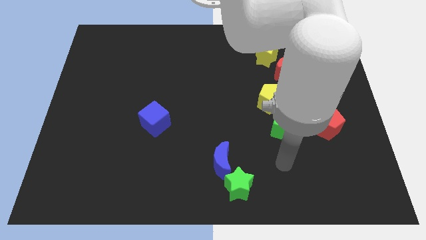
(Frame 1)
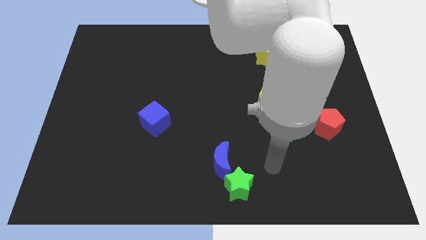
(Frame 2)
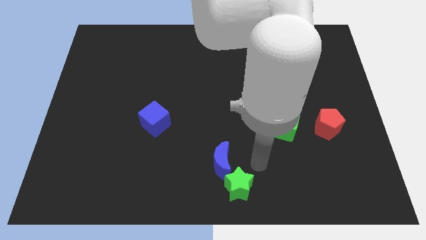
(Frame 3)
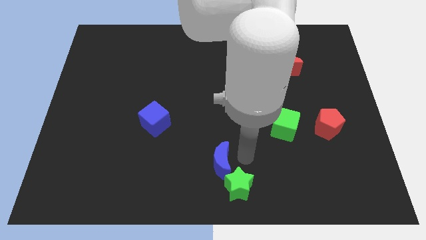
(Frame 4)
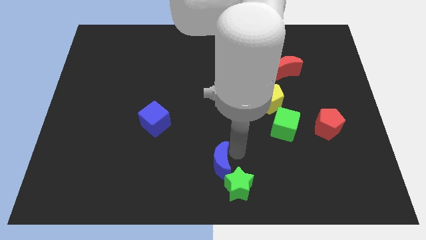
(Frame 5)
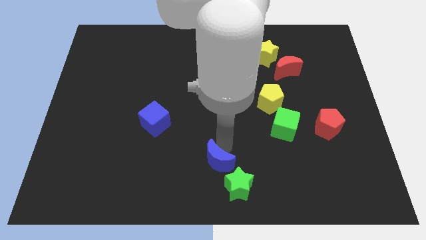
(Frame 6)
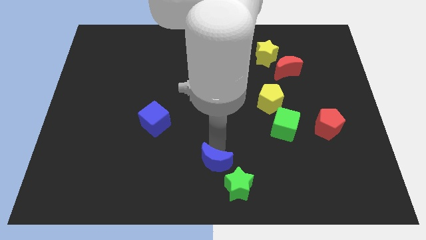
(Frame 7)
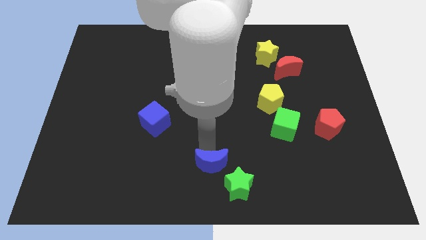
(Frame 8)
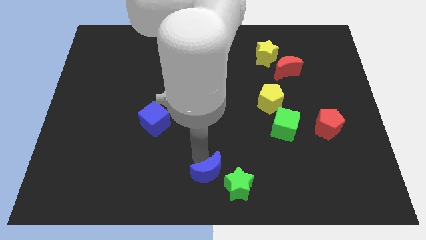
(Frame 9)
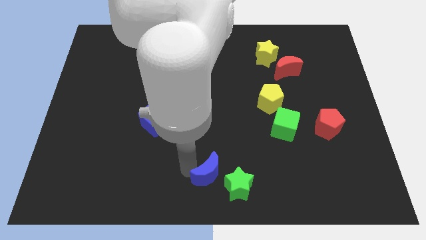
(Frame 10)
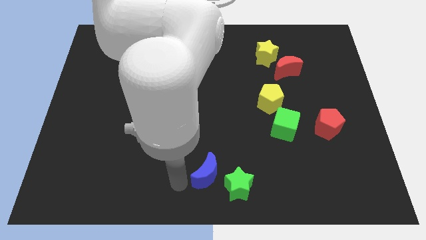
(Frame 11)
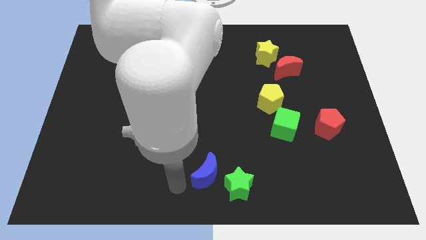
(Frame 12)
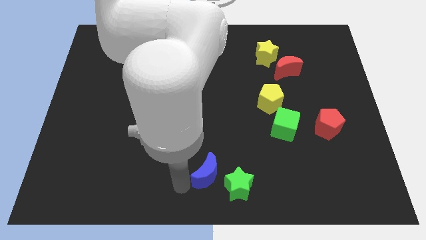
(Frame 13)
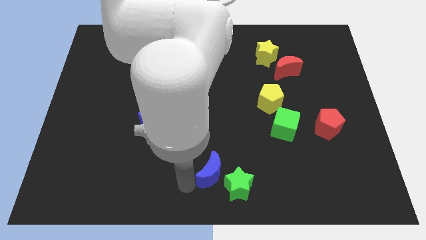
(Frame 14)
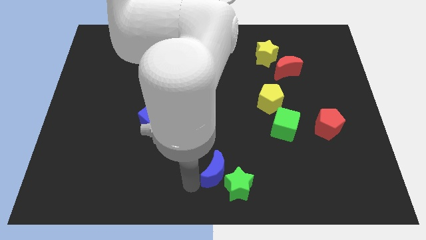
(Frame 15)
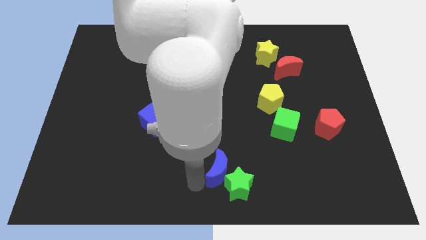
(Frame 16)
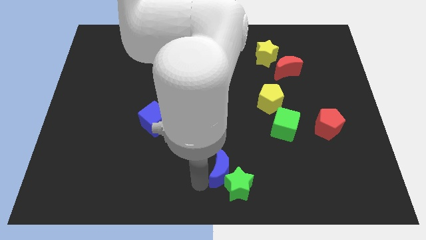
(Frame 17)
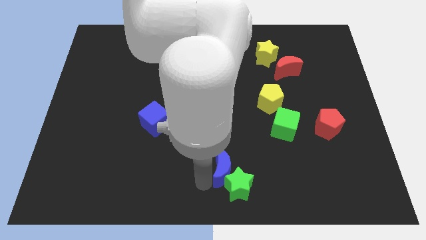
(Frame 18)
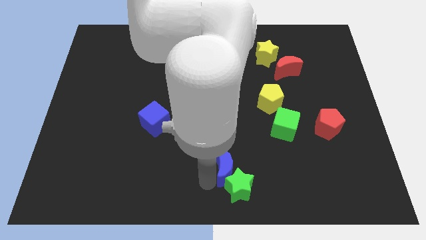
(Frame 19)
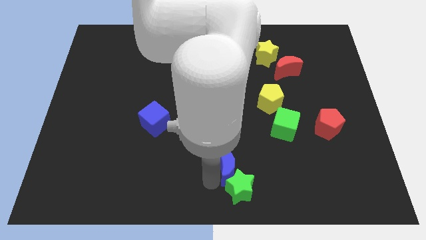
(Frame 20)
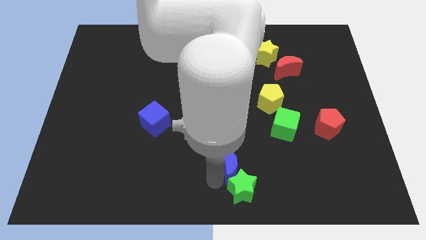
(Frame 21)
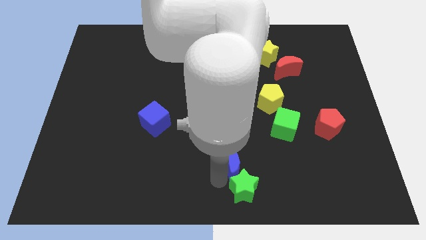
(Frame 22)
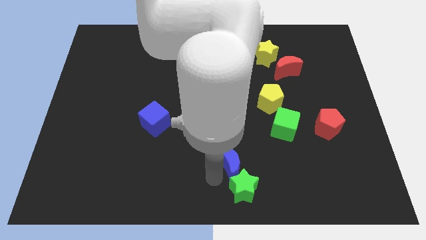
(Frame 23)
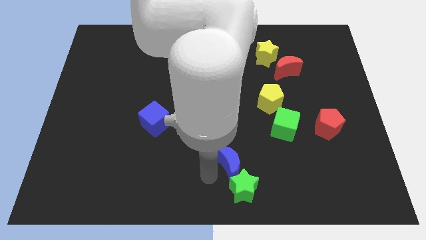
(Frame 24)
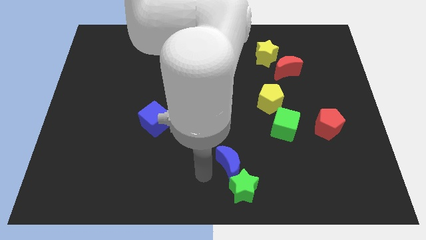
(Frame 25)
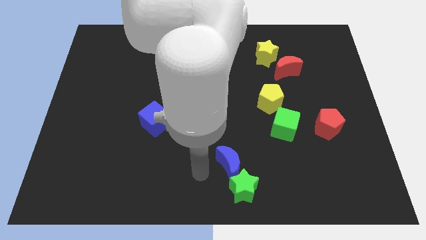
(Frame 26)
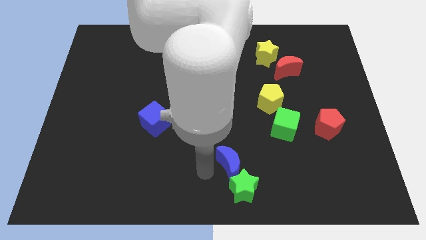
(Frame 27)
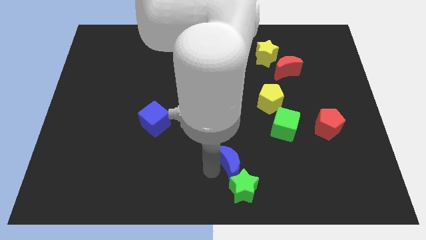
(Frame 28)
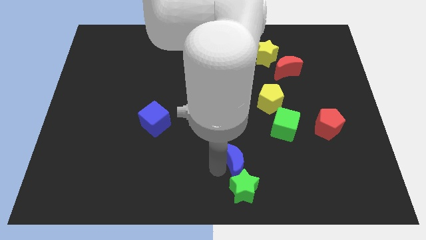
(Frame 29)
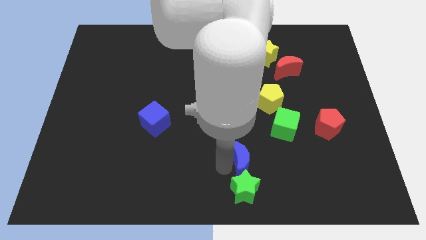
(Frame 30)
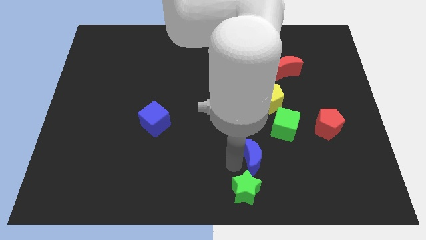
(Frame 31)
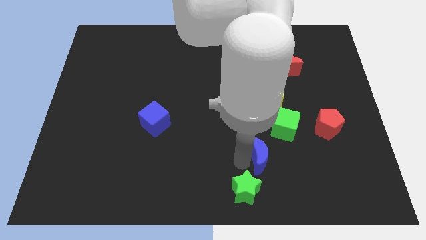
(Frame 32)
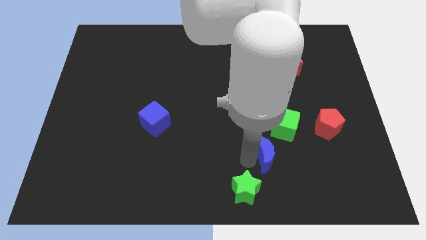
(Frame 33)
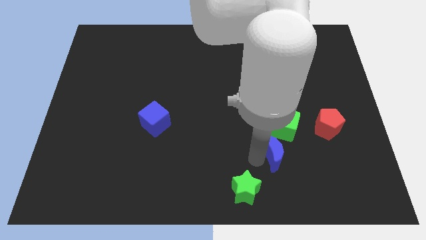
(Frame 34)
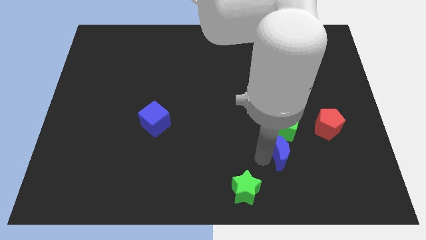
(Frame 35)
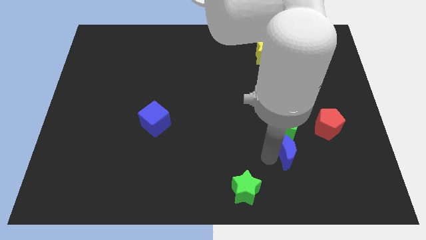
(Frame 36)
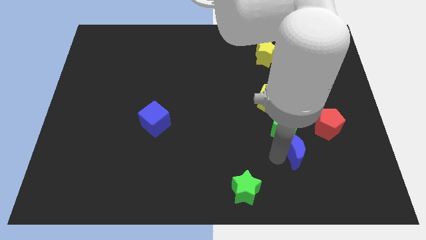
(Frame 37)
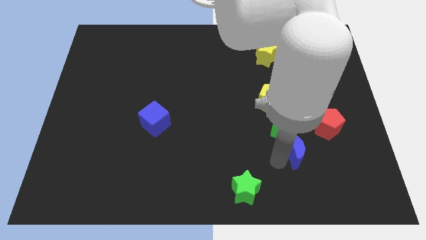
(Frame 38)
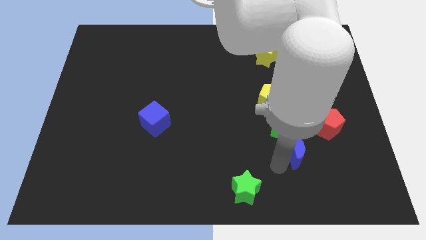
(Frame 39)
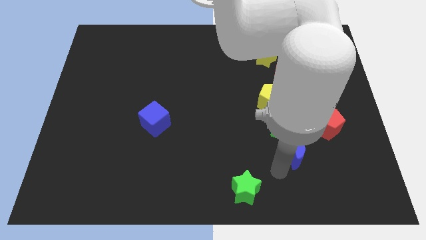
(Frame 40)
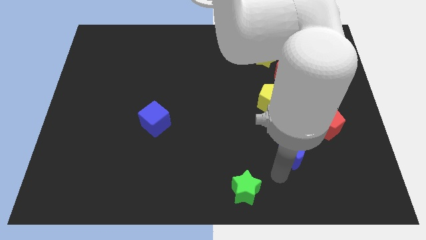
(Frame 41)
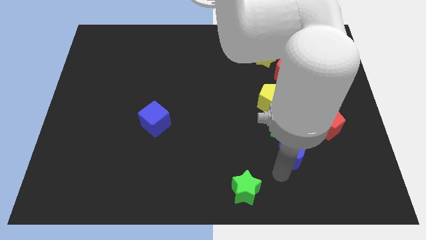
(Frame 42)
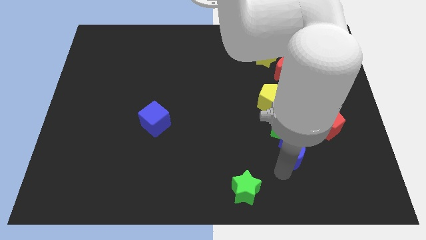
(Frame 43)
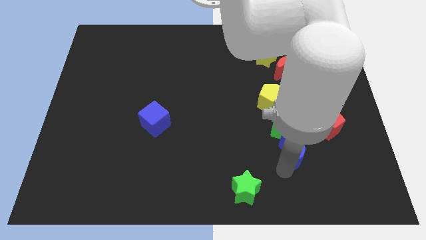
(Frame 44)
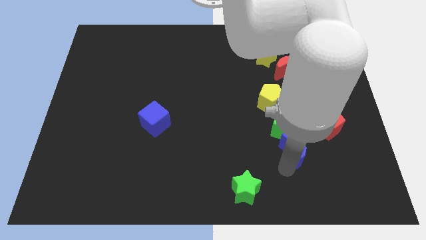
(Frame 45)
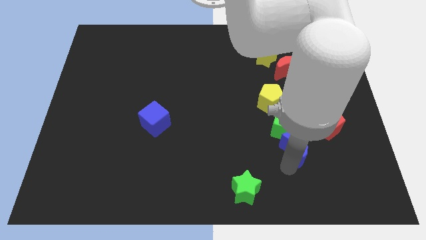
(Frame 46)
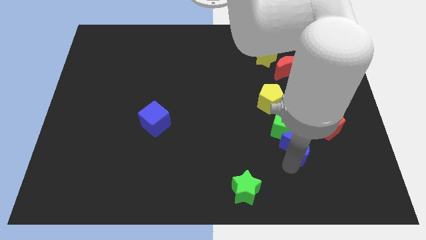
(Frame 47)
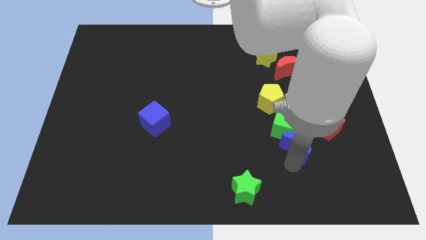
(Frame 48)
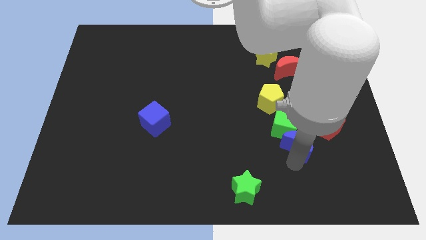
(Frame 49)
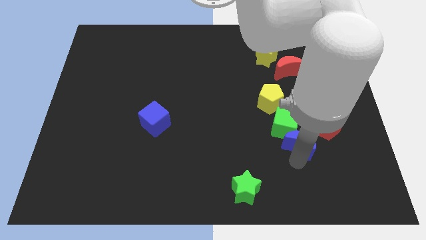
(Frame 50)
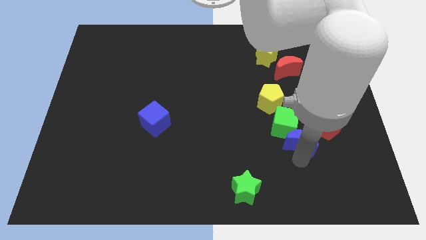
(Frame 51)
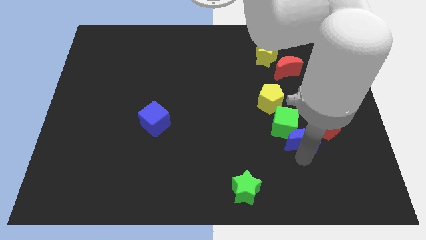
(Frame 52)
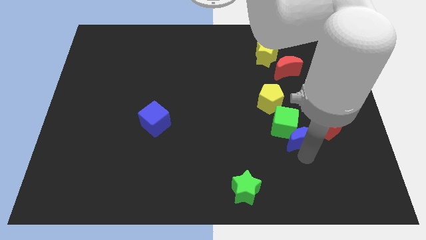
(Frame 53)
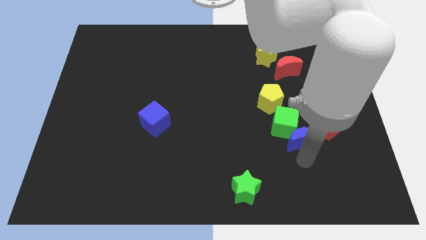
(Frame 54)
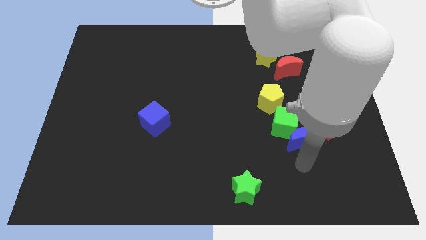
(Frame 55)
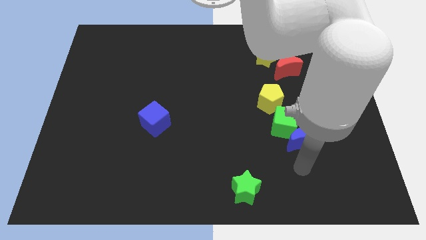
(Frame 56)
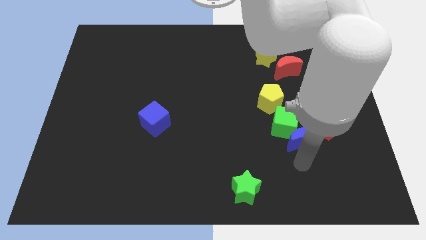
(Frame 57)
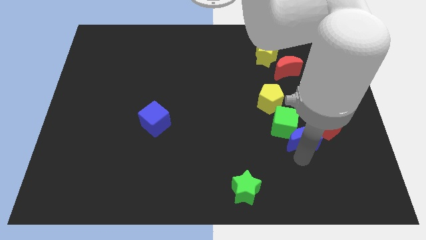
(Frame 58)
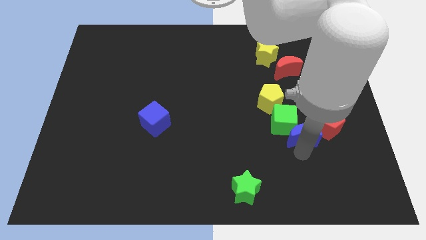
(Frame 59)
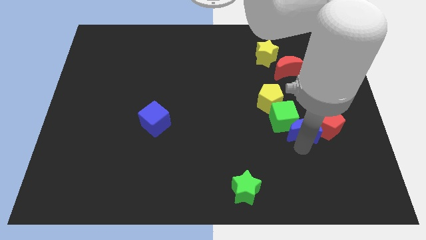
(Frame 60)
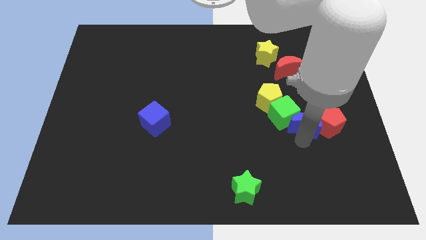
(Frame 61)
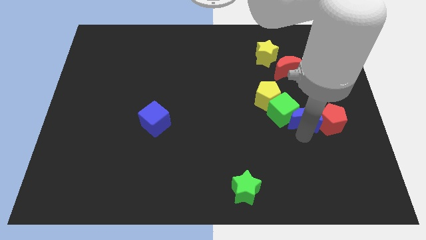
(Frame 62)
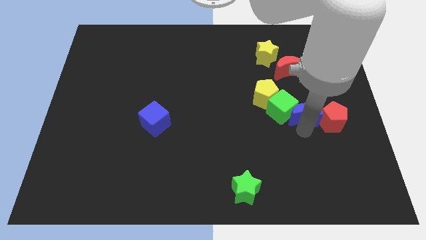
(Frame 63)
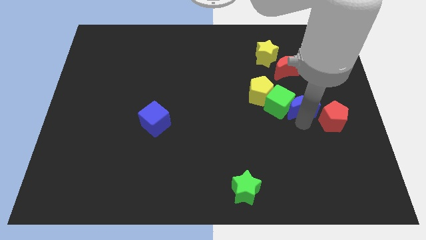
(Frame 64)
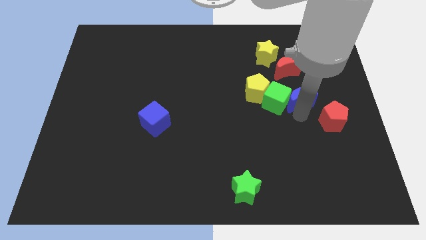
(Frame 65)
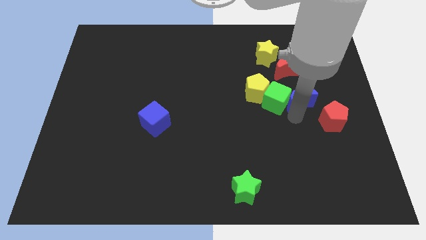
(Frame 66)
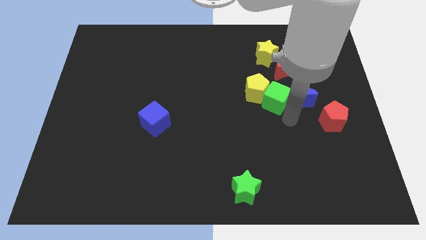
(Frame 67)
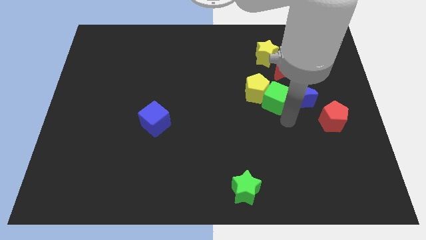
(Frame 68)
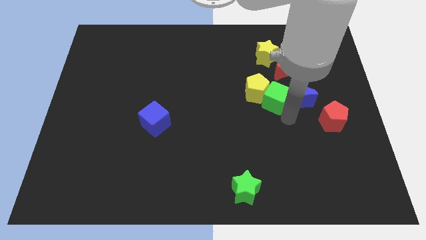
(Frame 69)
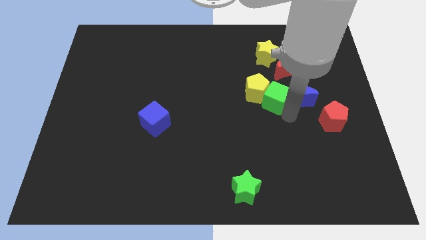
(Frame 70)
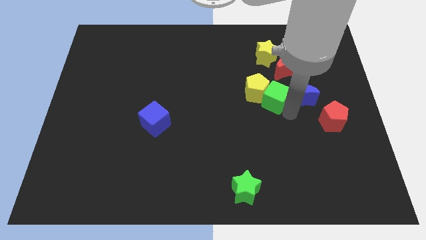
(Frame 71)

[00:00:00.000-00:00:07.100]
slide the blue moon to the bottom right side of the red moon
